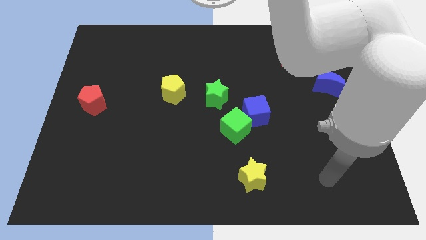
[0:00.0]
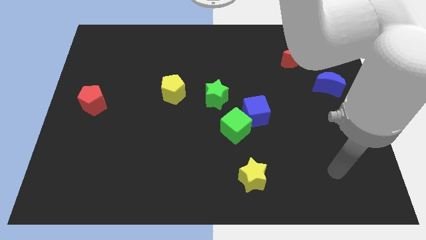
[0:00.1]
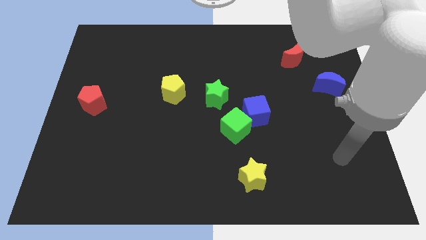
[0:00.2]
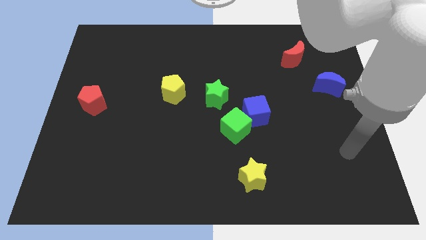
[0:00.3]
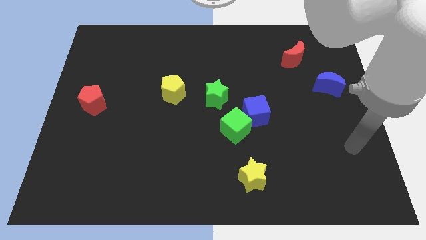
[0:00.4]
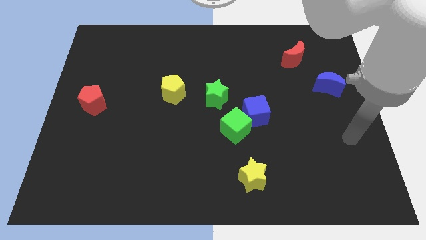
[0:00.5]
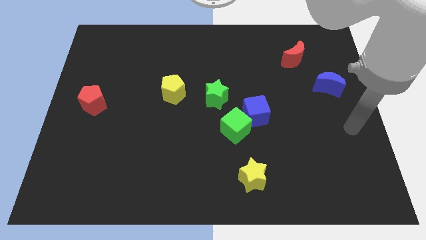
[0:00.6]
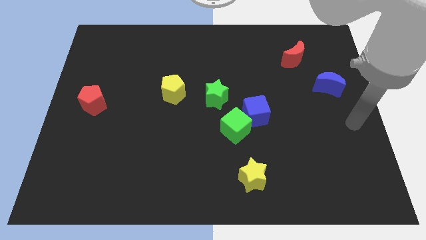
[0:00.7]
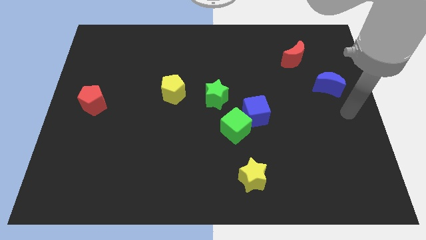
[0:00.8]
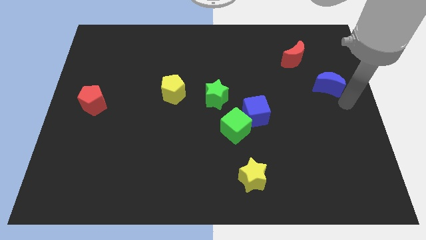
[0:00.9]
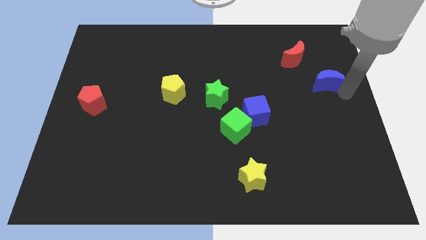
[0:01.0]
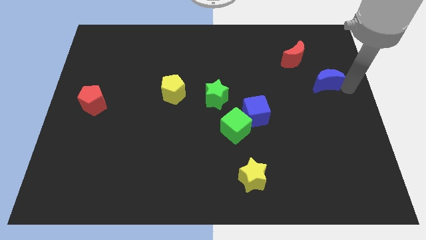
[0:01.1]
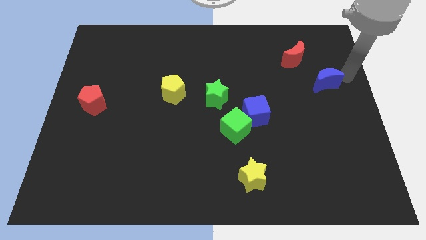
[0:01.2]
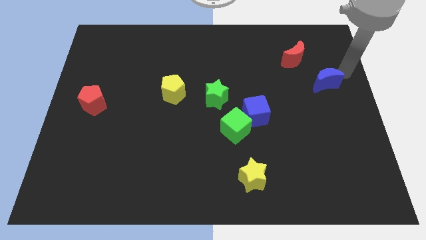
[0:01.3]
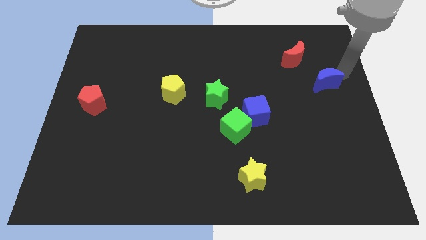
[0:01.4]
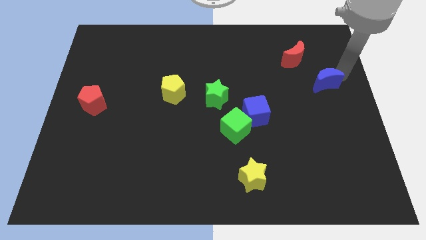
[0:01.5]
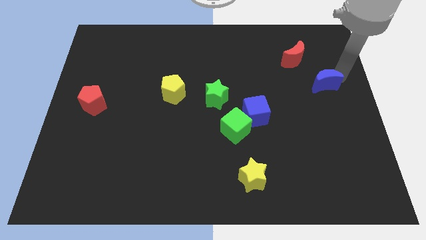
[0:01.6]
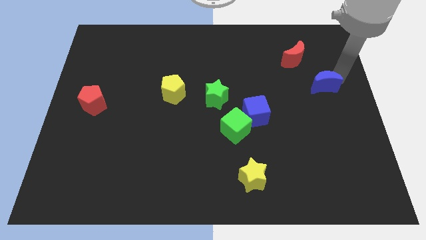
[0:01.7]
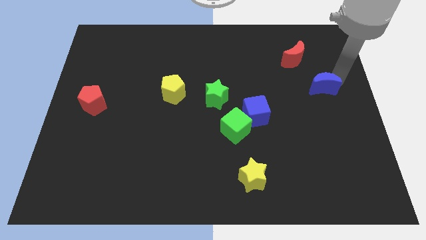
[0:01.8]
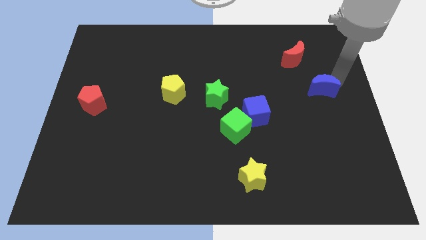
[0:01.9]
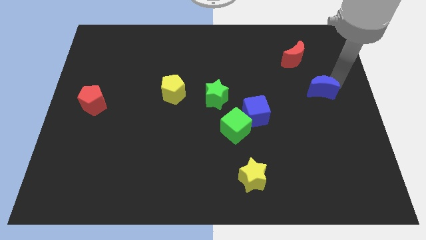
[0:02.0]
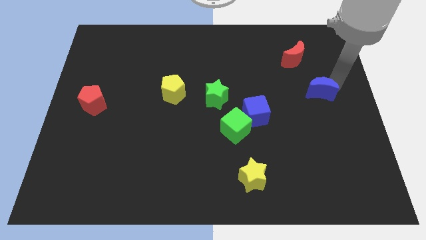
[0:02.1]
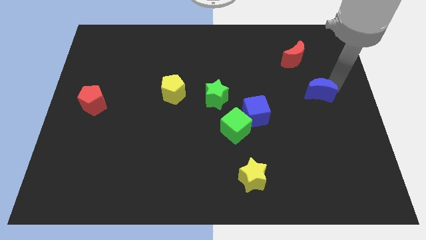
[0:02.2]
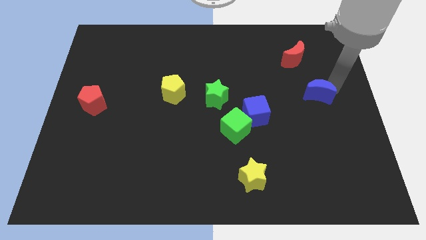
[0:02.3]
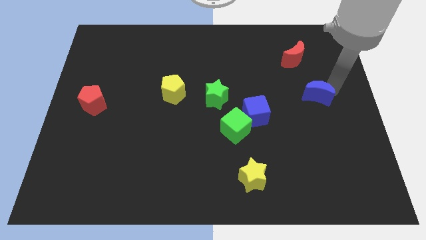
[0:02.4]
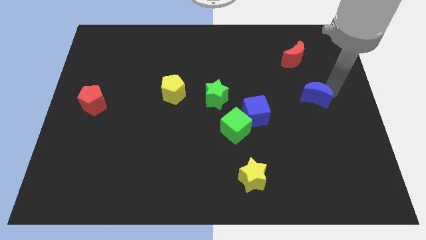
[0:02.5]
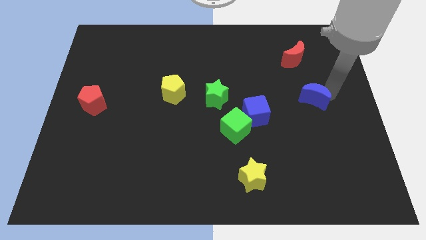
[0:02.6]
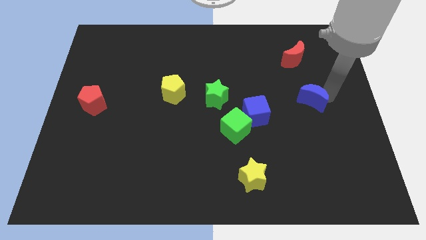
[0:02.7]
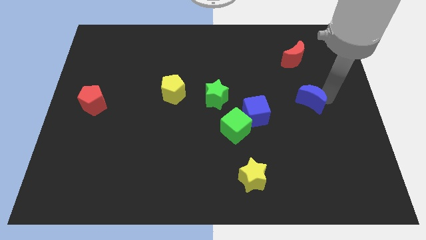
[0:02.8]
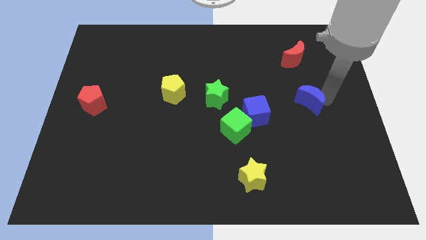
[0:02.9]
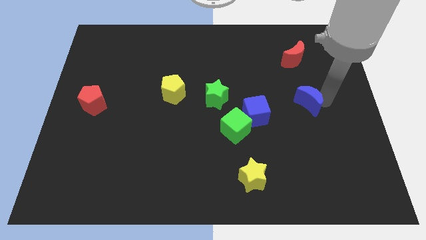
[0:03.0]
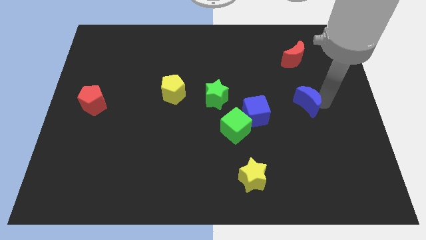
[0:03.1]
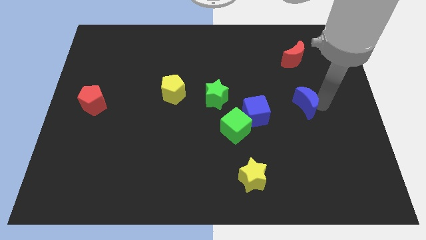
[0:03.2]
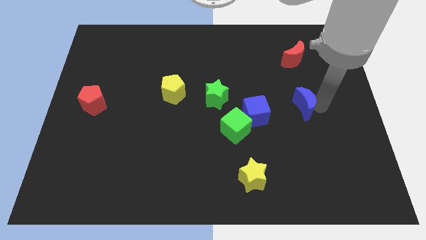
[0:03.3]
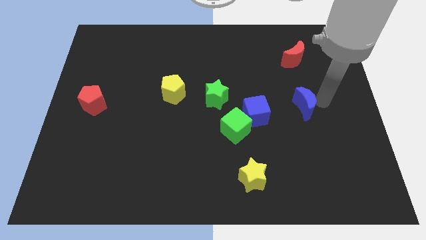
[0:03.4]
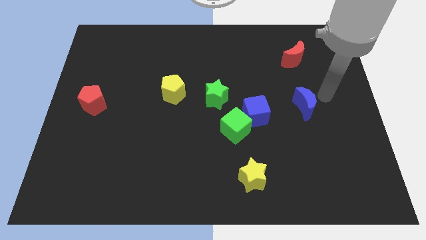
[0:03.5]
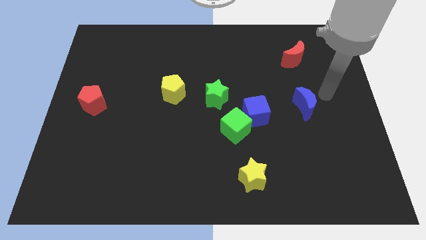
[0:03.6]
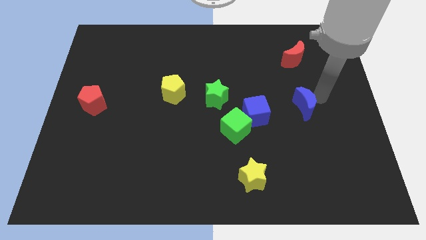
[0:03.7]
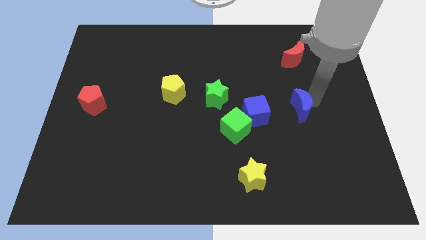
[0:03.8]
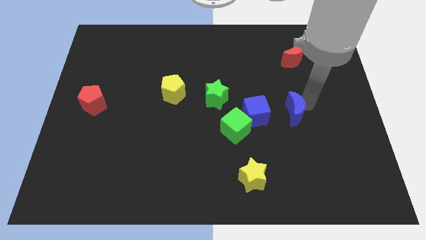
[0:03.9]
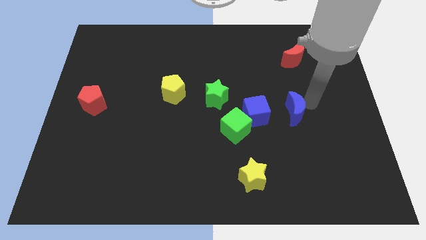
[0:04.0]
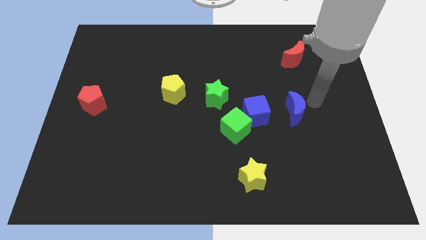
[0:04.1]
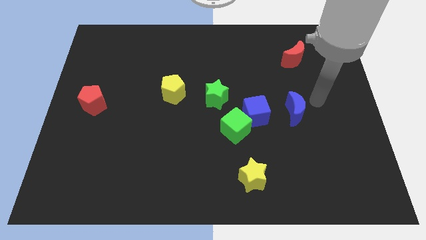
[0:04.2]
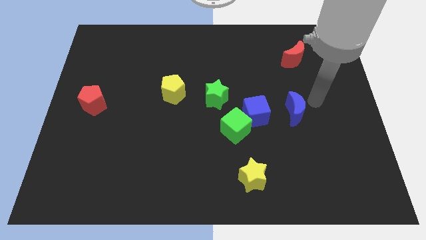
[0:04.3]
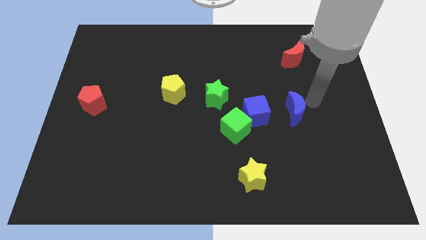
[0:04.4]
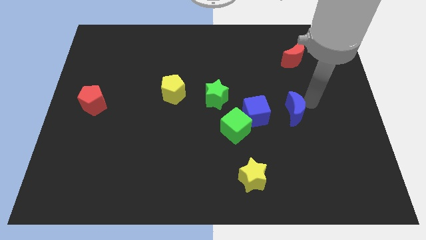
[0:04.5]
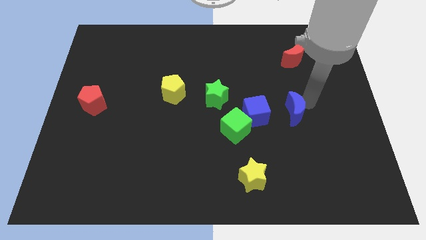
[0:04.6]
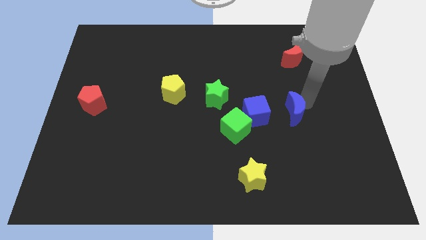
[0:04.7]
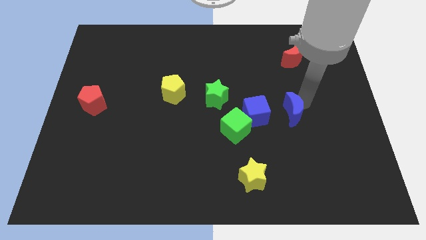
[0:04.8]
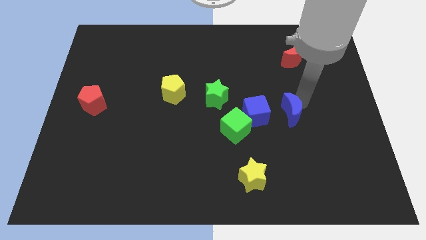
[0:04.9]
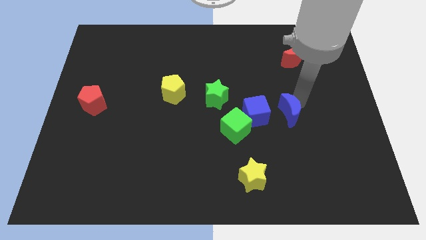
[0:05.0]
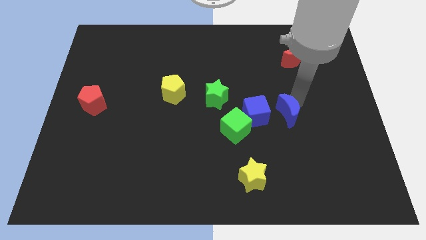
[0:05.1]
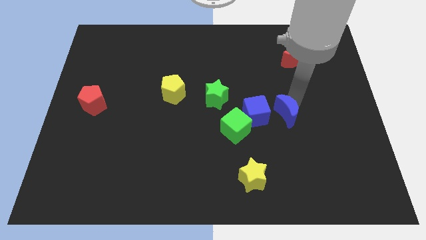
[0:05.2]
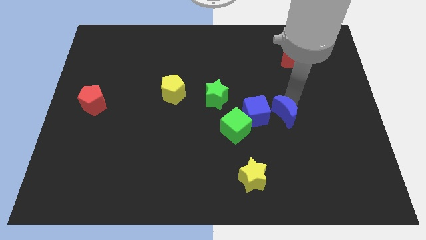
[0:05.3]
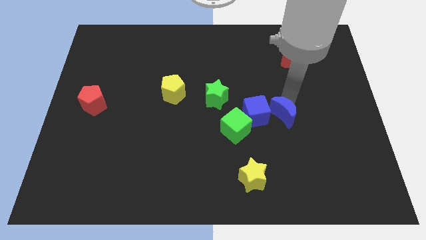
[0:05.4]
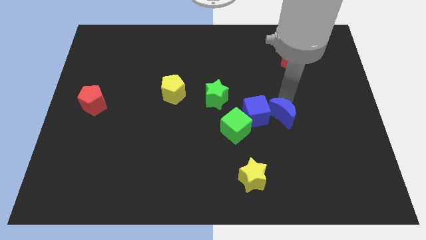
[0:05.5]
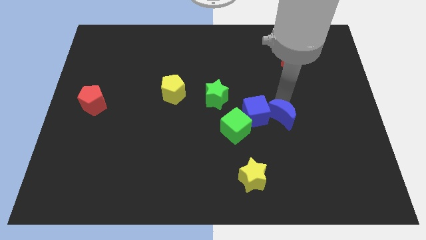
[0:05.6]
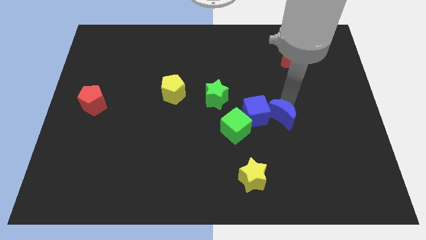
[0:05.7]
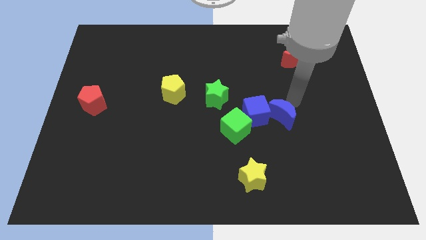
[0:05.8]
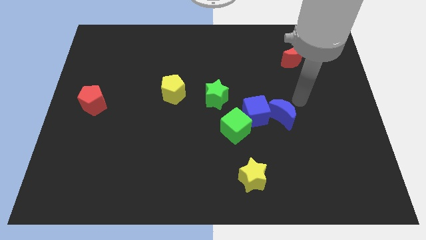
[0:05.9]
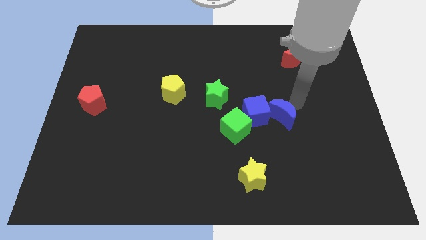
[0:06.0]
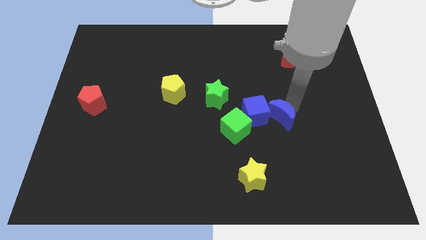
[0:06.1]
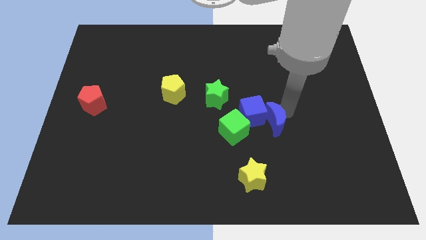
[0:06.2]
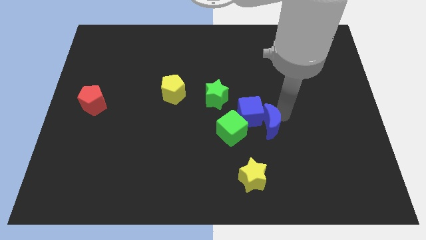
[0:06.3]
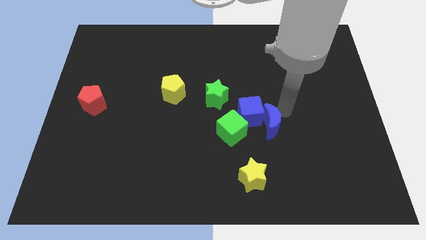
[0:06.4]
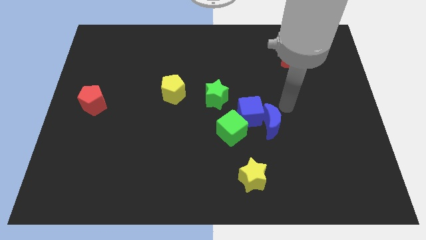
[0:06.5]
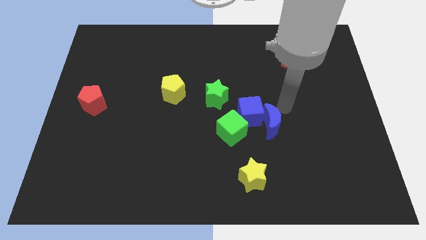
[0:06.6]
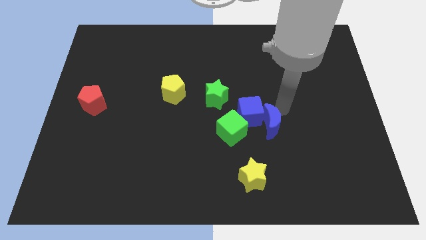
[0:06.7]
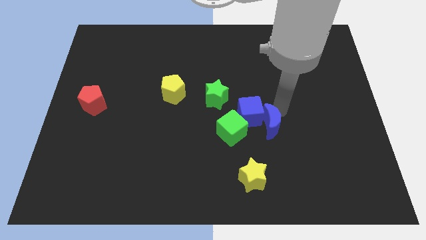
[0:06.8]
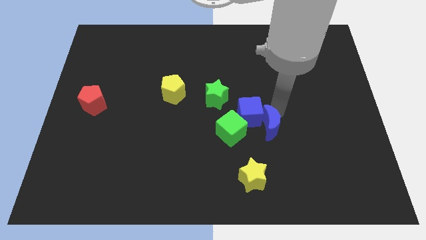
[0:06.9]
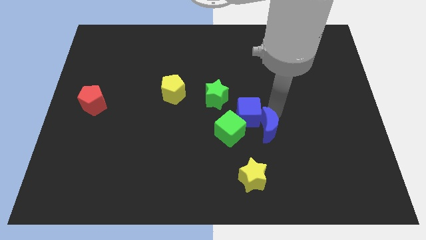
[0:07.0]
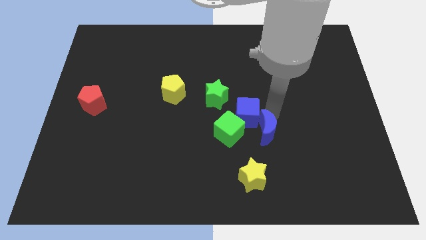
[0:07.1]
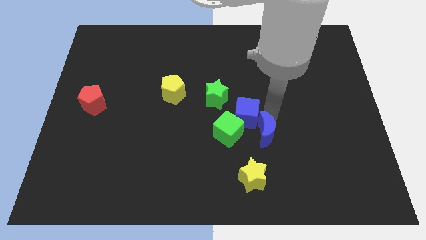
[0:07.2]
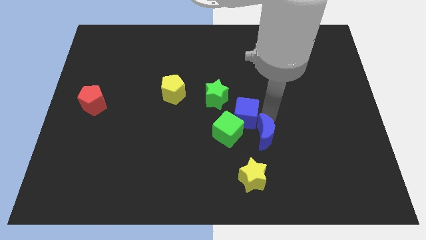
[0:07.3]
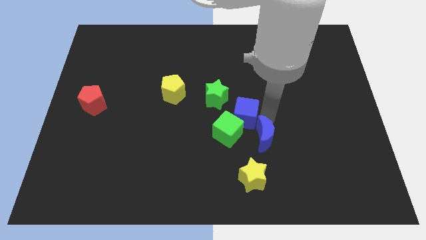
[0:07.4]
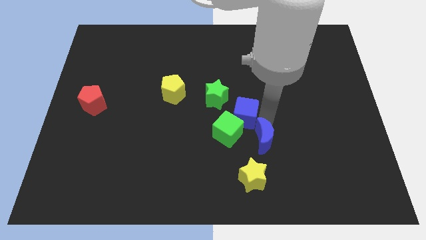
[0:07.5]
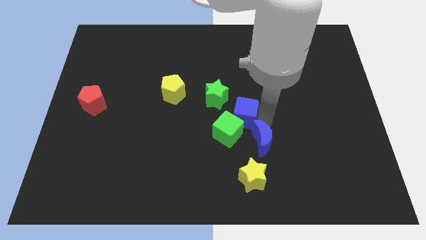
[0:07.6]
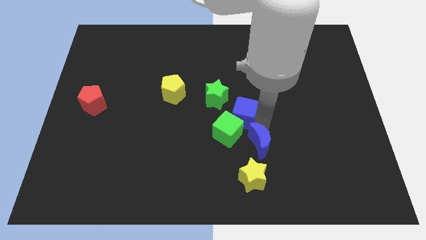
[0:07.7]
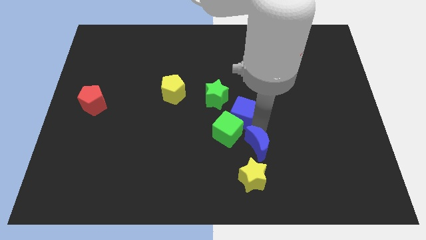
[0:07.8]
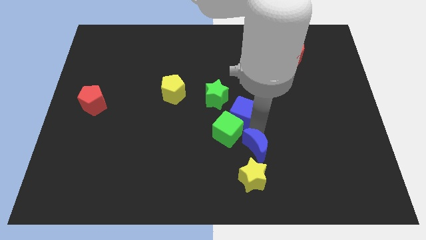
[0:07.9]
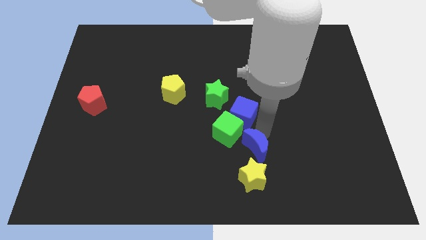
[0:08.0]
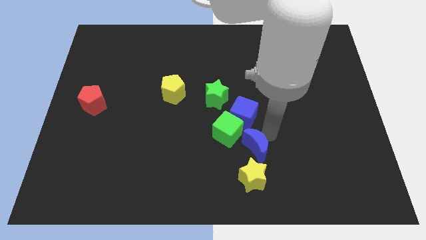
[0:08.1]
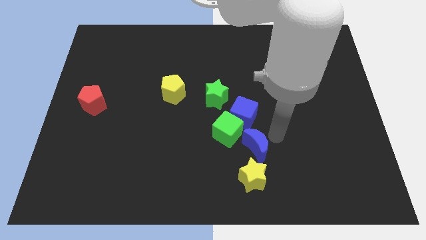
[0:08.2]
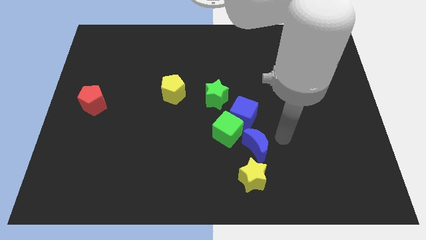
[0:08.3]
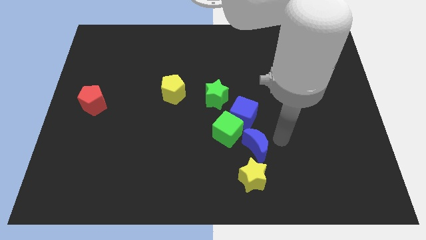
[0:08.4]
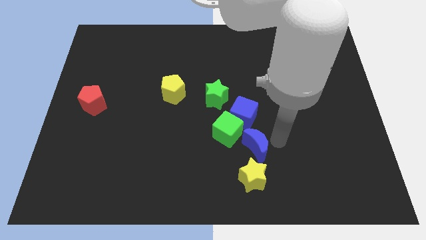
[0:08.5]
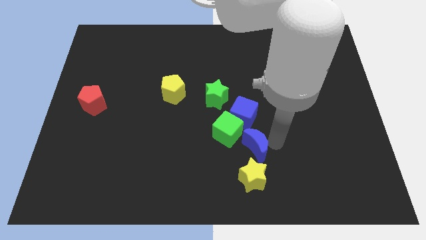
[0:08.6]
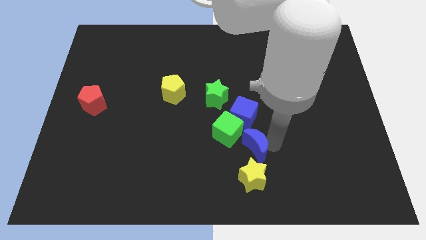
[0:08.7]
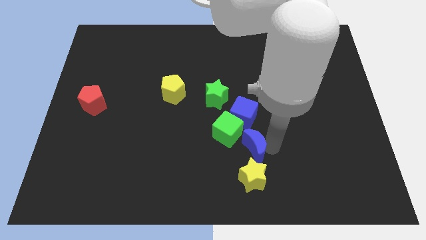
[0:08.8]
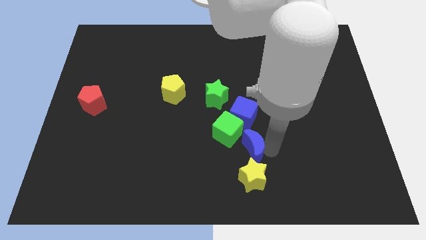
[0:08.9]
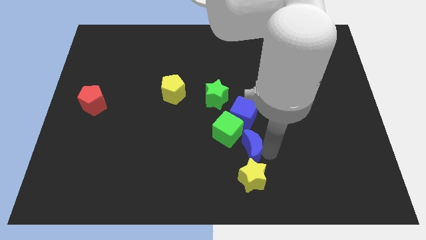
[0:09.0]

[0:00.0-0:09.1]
slide the blue moon to the top left side of the yellow star
